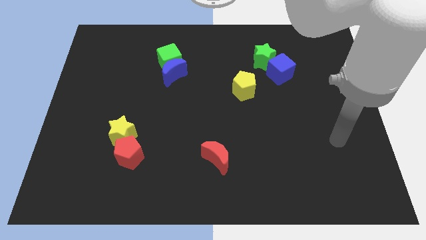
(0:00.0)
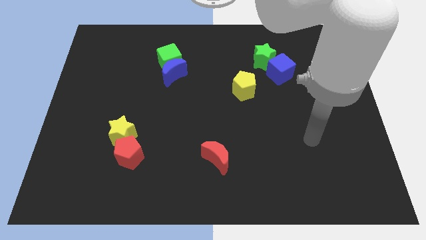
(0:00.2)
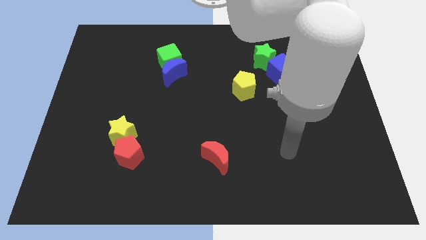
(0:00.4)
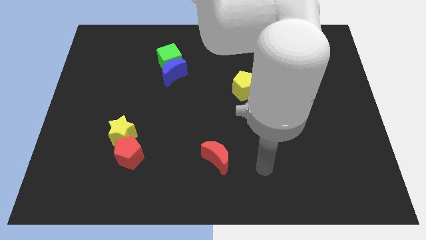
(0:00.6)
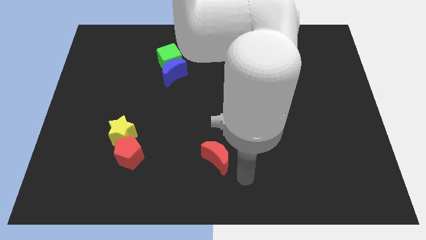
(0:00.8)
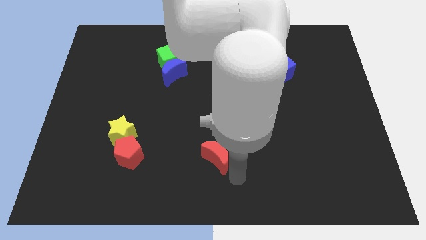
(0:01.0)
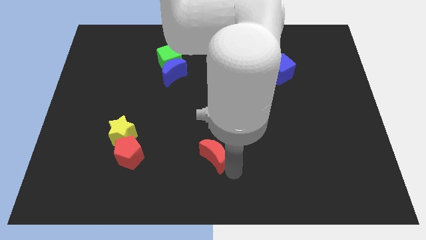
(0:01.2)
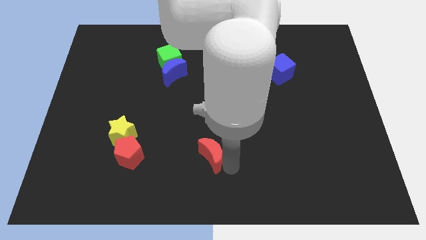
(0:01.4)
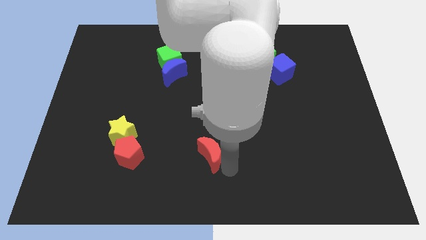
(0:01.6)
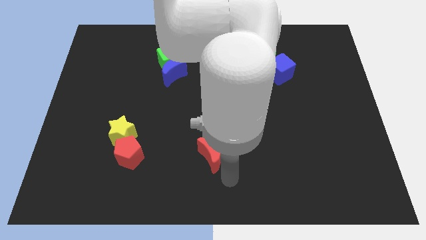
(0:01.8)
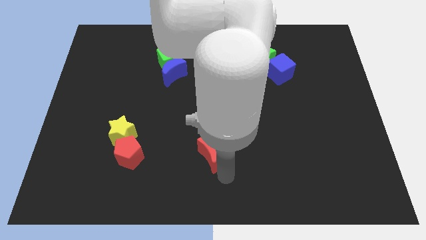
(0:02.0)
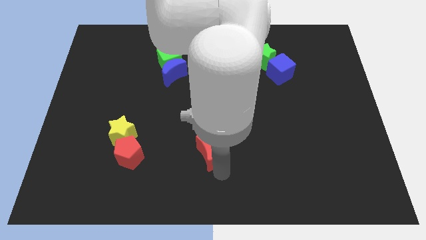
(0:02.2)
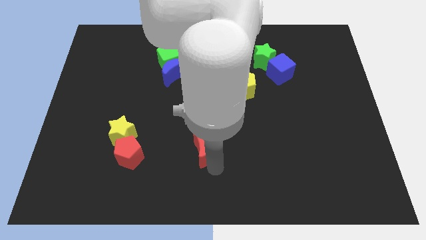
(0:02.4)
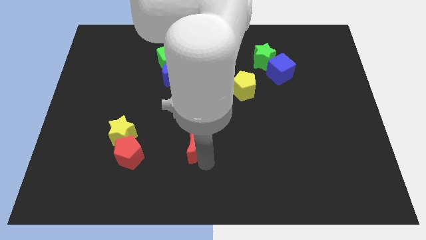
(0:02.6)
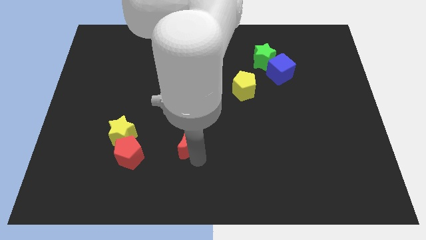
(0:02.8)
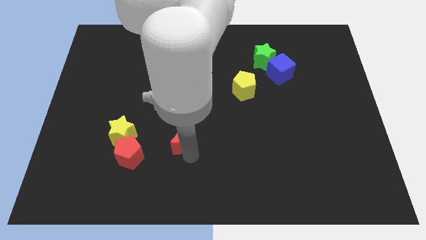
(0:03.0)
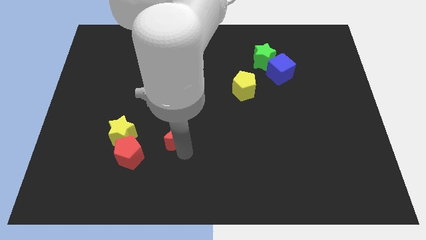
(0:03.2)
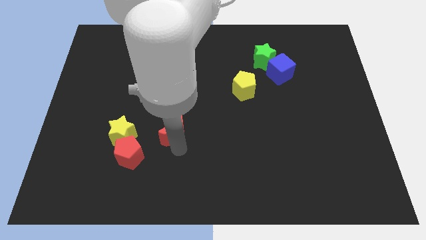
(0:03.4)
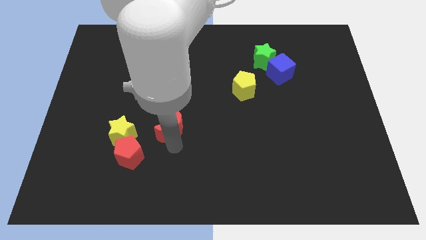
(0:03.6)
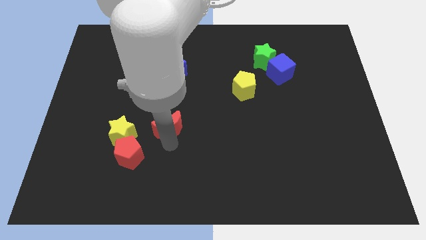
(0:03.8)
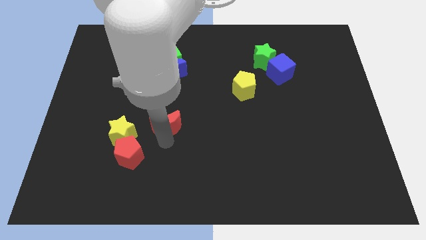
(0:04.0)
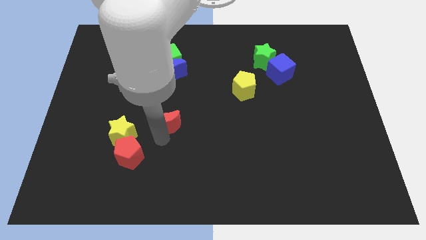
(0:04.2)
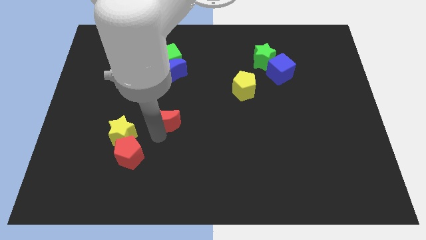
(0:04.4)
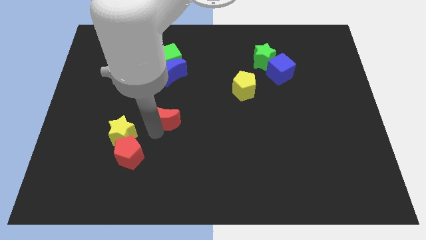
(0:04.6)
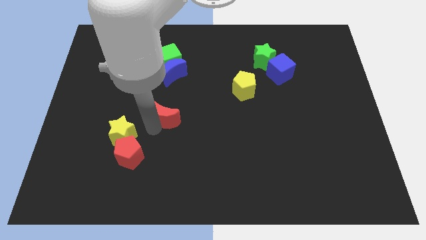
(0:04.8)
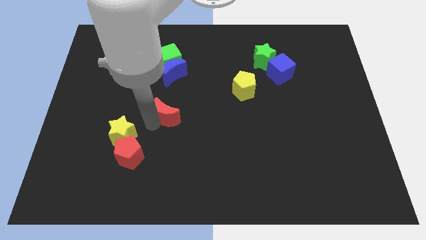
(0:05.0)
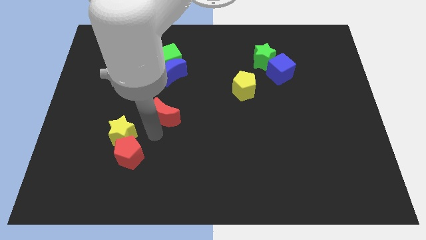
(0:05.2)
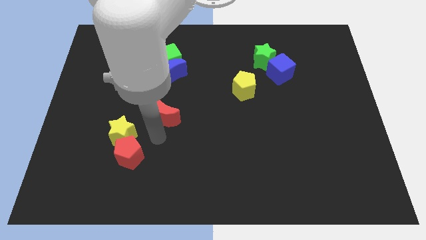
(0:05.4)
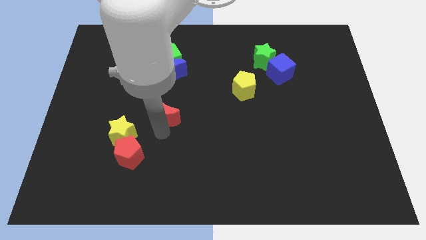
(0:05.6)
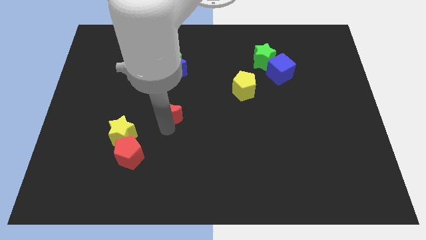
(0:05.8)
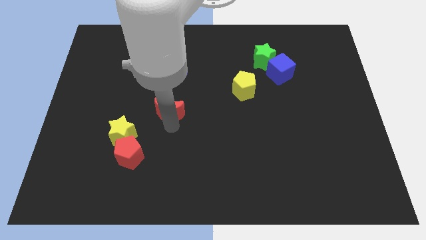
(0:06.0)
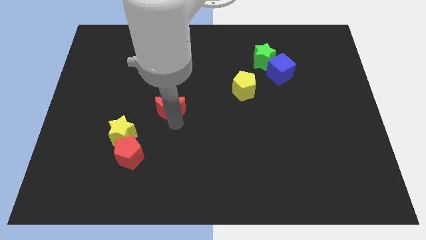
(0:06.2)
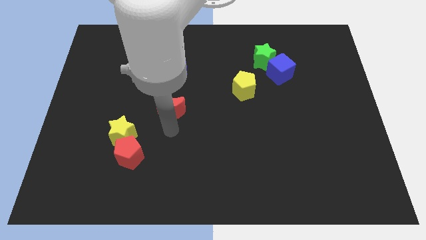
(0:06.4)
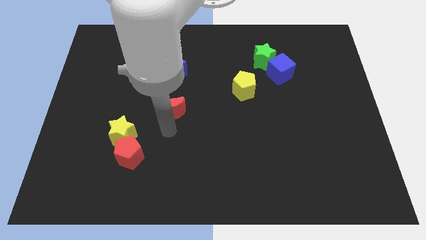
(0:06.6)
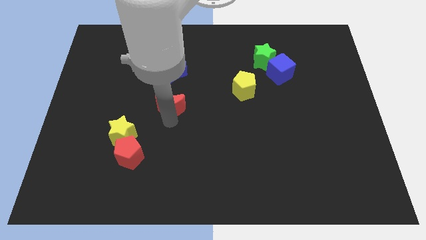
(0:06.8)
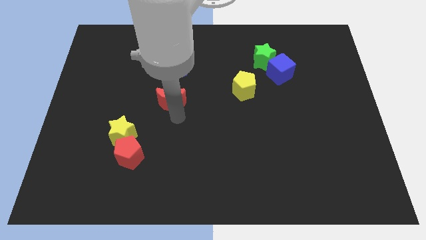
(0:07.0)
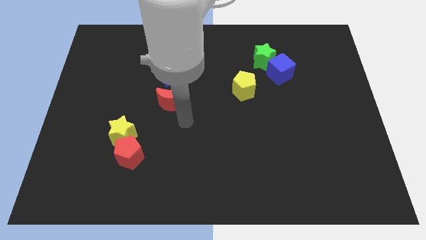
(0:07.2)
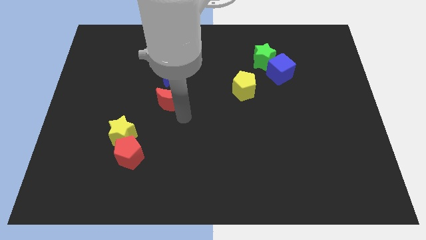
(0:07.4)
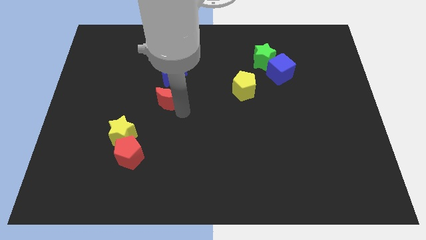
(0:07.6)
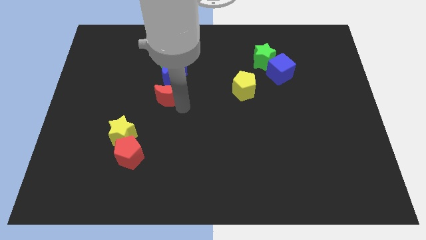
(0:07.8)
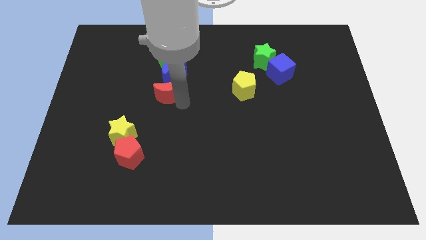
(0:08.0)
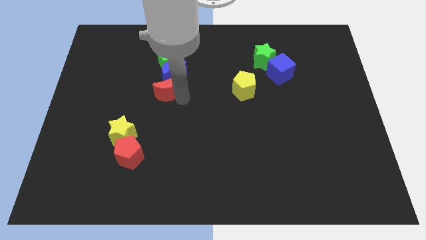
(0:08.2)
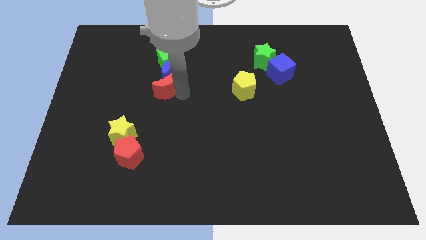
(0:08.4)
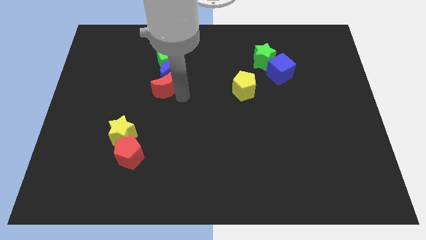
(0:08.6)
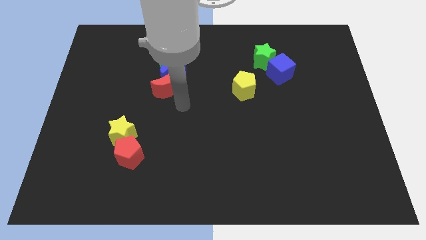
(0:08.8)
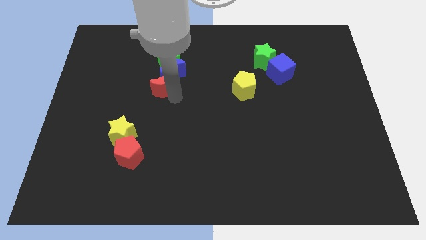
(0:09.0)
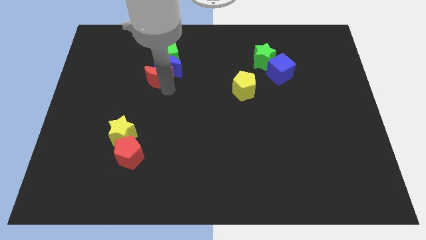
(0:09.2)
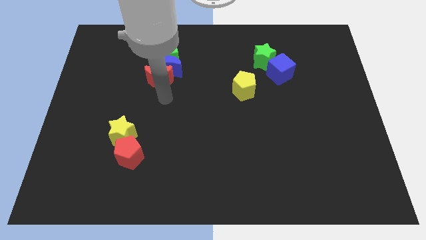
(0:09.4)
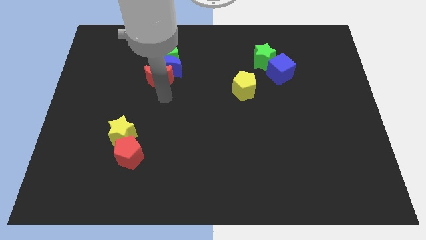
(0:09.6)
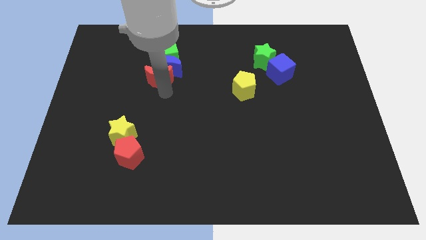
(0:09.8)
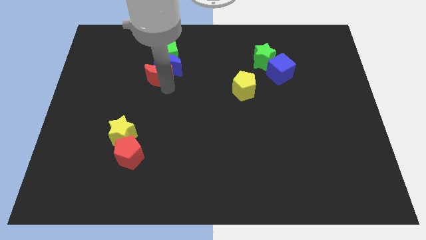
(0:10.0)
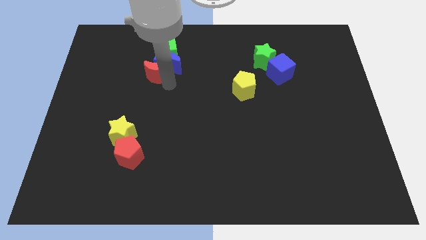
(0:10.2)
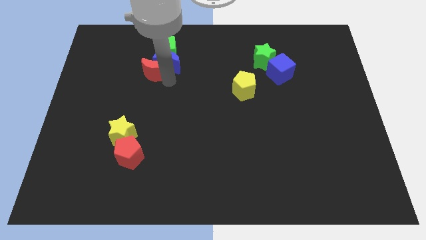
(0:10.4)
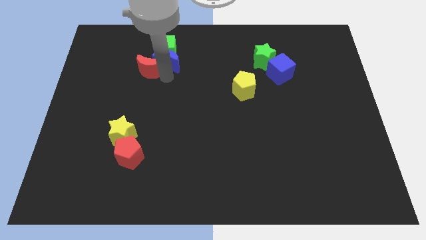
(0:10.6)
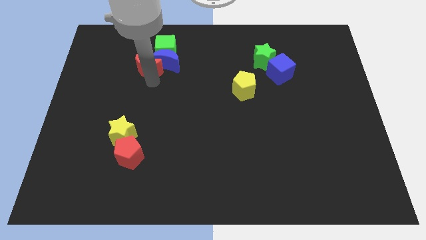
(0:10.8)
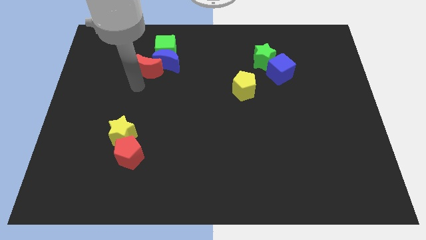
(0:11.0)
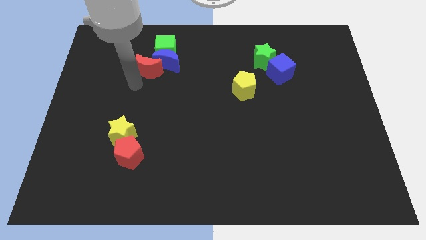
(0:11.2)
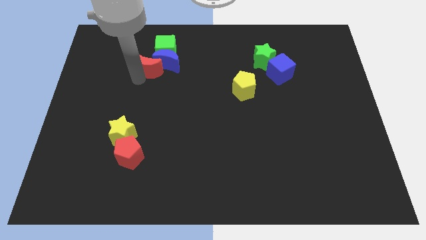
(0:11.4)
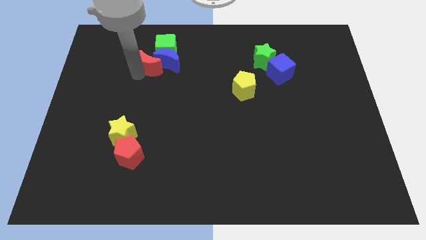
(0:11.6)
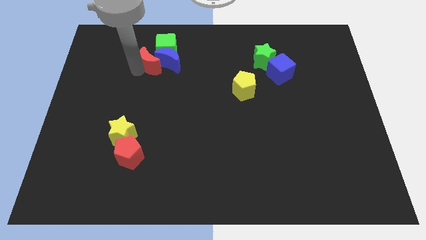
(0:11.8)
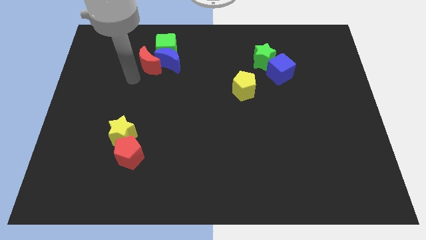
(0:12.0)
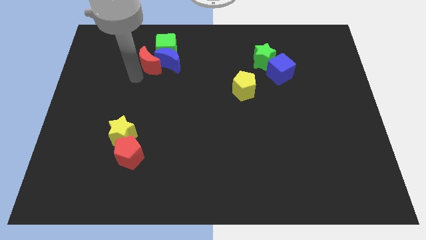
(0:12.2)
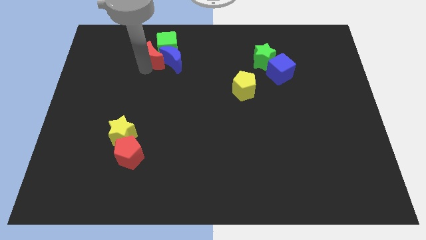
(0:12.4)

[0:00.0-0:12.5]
push the red moon next to the green cube

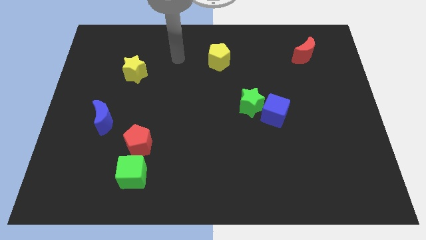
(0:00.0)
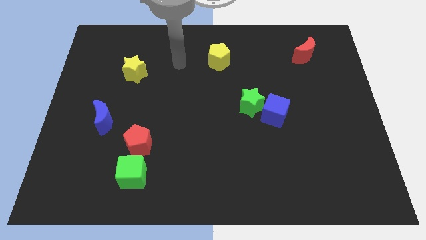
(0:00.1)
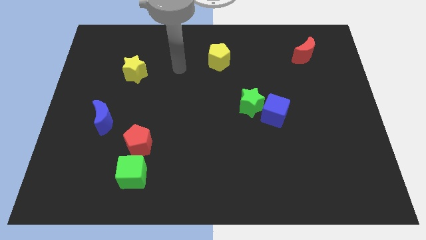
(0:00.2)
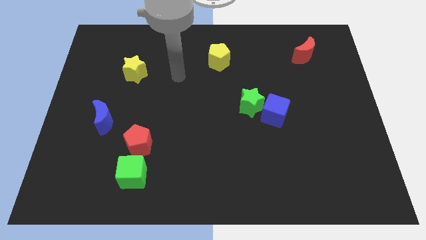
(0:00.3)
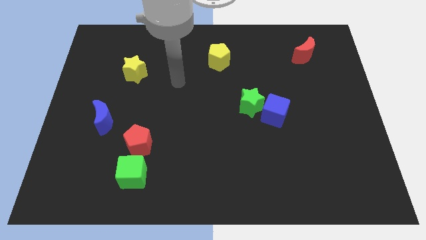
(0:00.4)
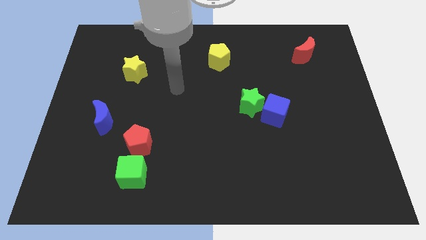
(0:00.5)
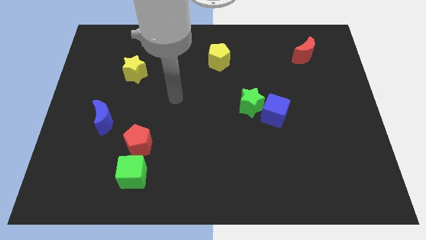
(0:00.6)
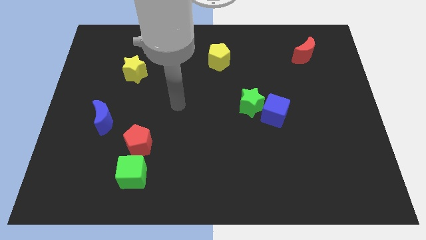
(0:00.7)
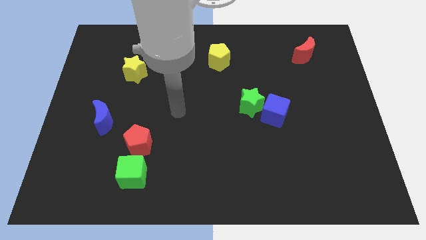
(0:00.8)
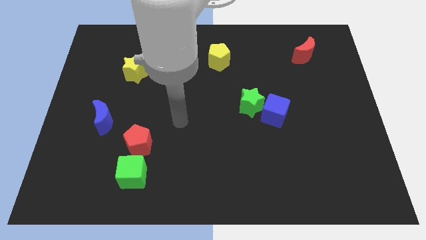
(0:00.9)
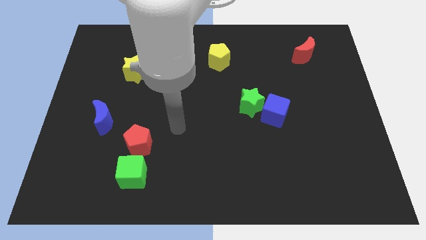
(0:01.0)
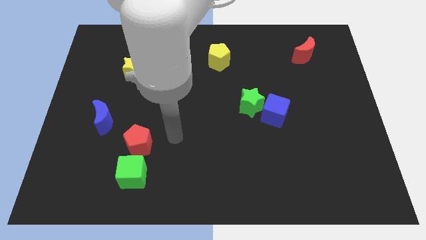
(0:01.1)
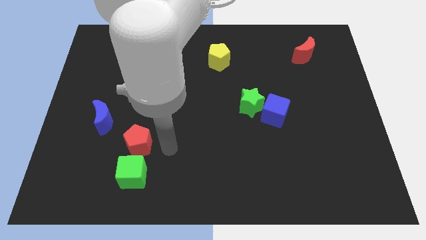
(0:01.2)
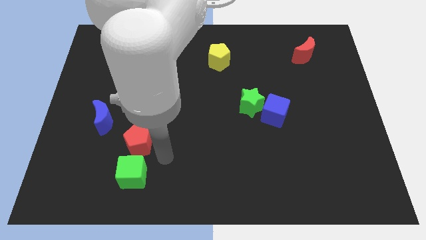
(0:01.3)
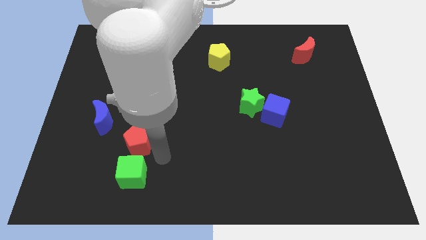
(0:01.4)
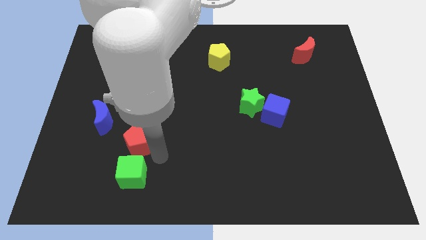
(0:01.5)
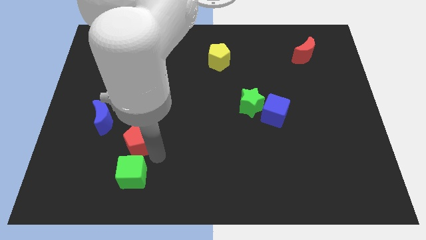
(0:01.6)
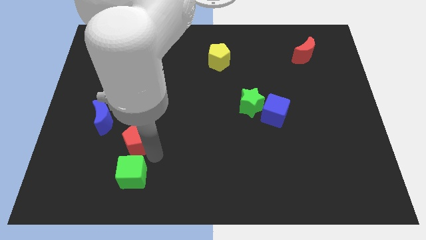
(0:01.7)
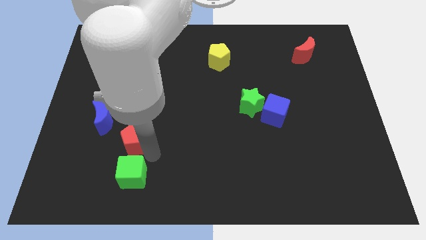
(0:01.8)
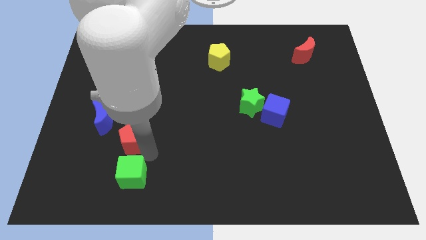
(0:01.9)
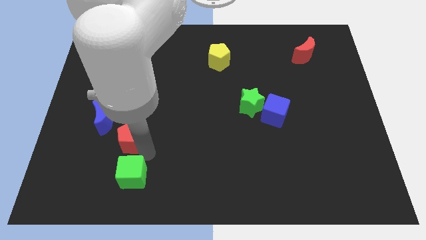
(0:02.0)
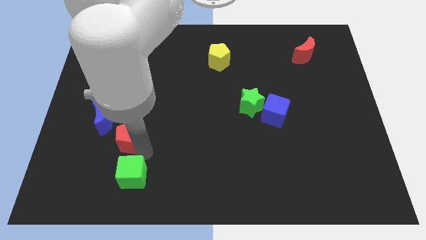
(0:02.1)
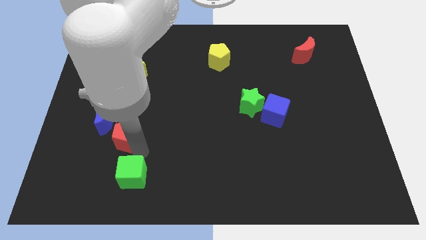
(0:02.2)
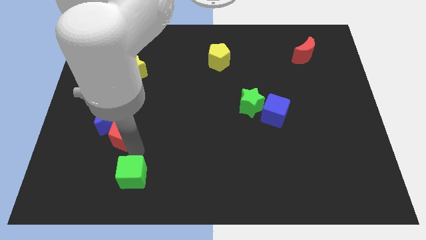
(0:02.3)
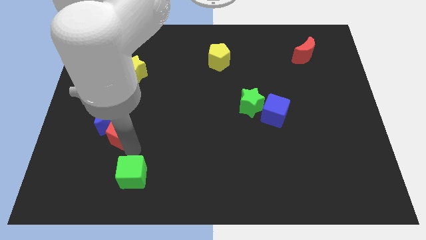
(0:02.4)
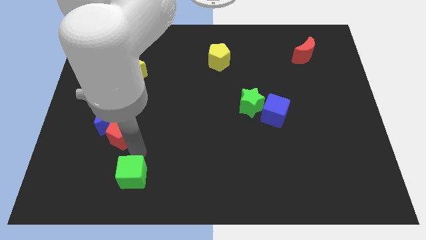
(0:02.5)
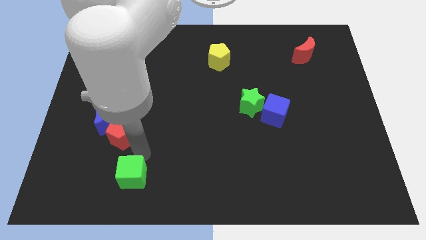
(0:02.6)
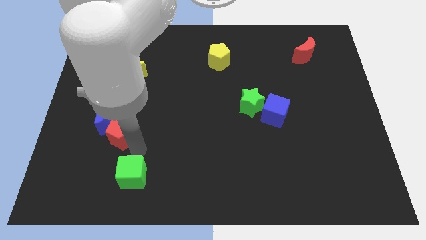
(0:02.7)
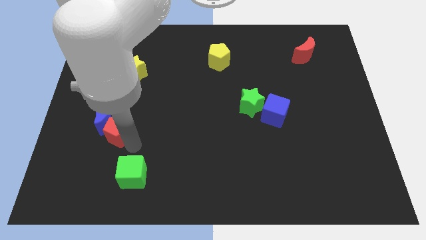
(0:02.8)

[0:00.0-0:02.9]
put the red pentagon to the blue moon
